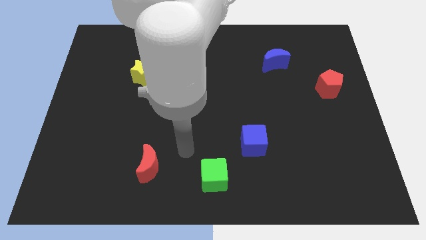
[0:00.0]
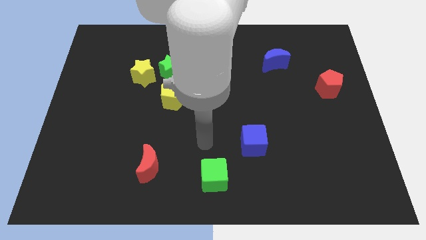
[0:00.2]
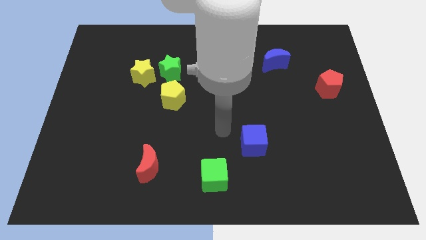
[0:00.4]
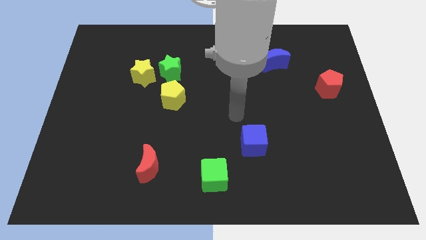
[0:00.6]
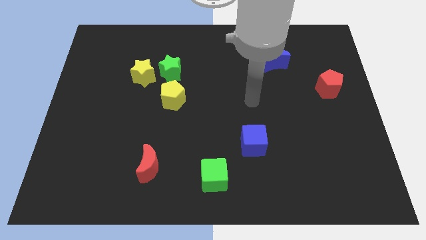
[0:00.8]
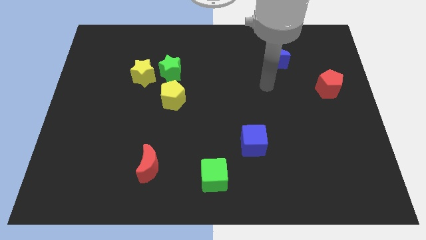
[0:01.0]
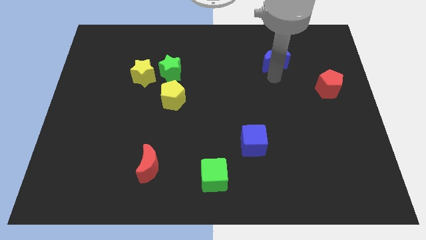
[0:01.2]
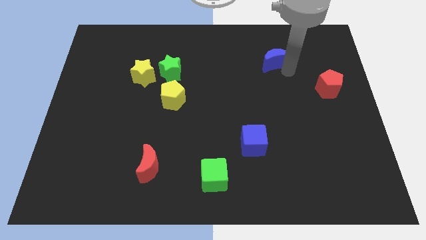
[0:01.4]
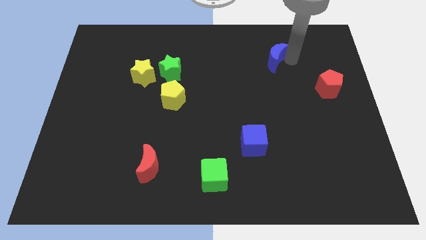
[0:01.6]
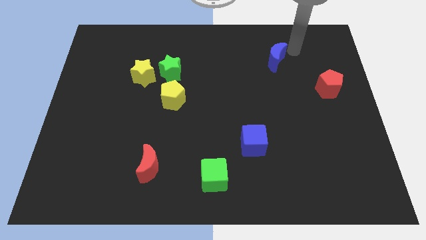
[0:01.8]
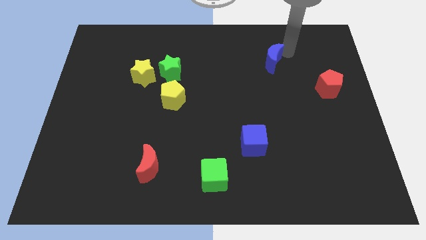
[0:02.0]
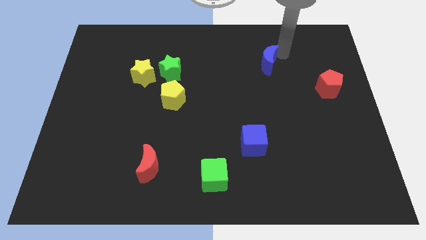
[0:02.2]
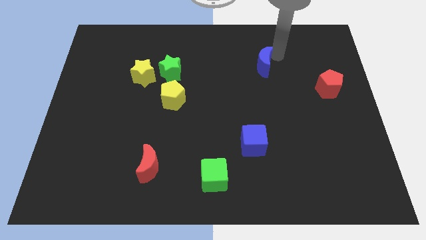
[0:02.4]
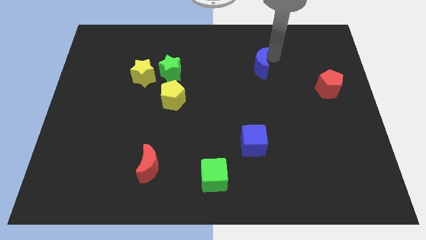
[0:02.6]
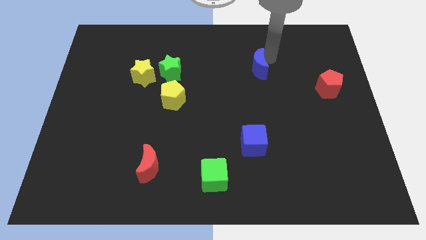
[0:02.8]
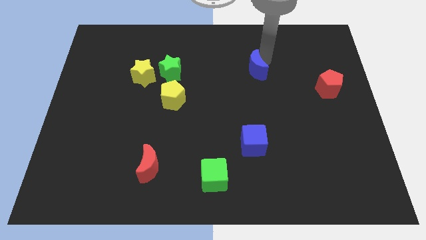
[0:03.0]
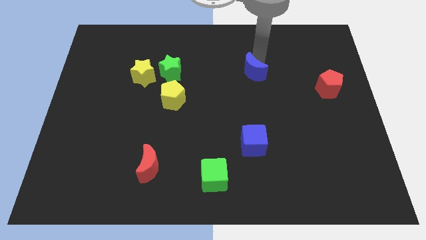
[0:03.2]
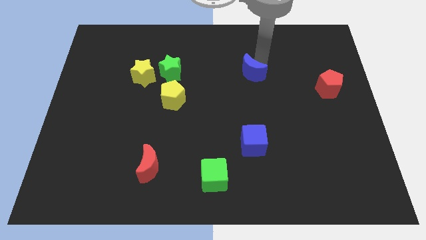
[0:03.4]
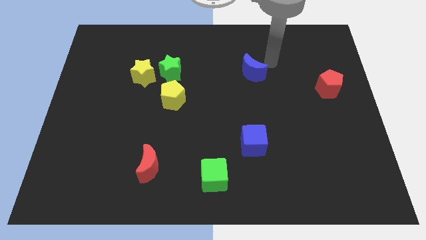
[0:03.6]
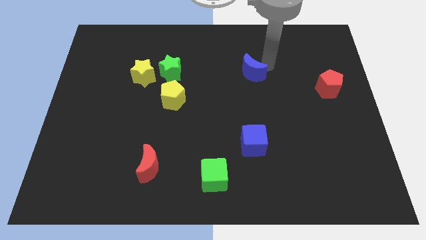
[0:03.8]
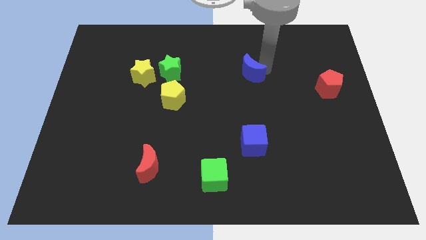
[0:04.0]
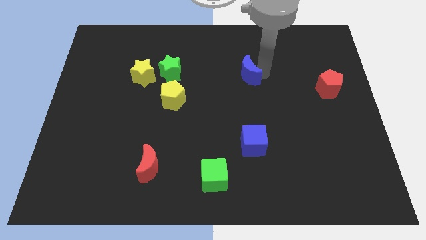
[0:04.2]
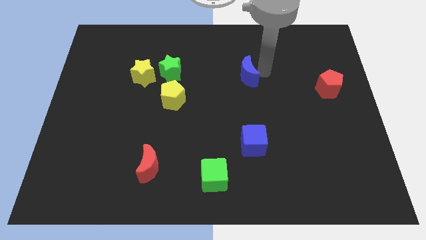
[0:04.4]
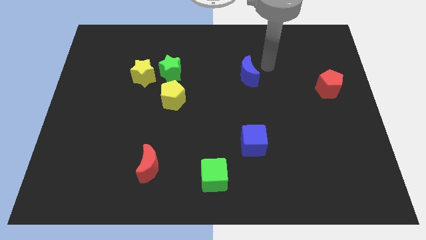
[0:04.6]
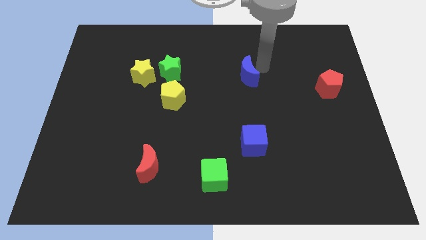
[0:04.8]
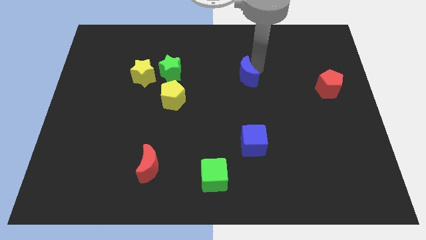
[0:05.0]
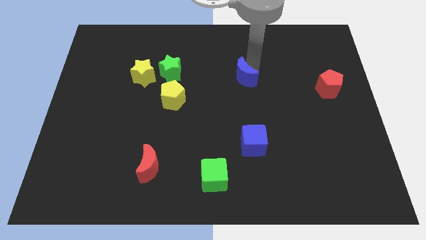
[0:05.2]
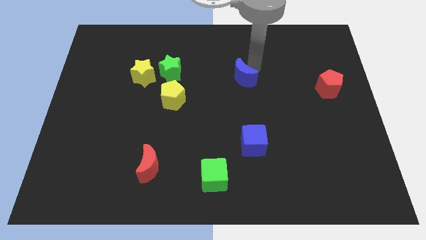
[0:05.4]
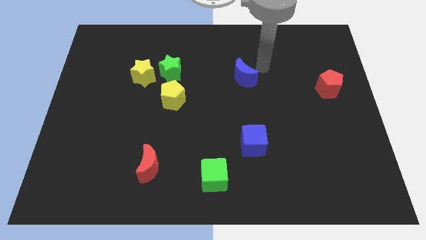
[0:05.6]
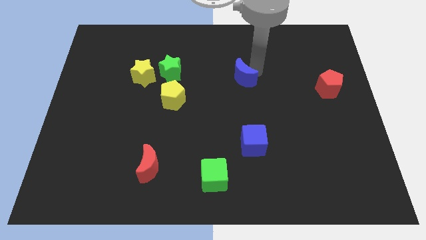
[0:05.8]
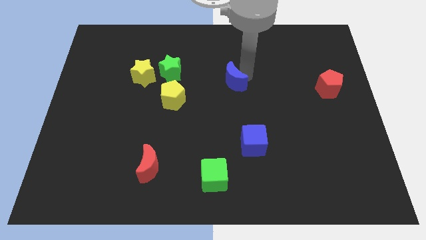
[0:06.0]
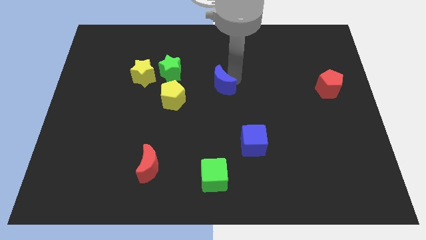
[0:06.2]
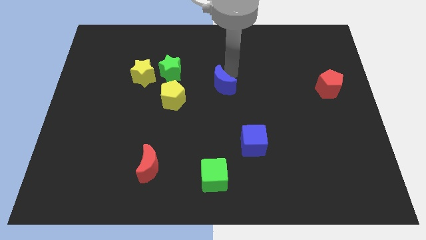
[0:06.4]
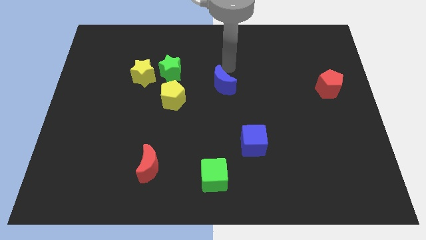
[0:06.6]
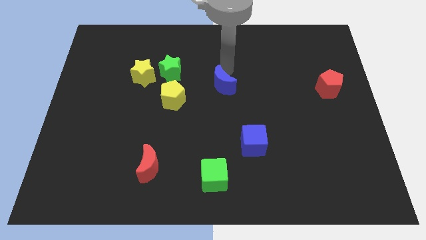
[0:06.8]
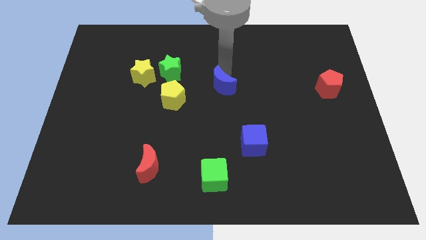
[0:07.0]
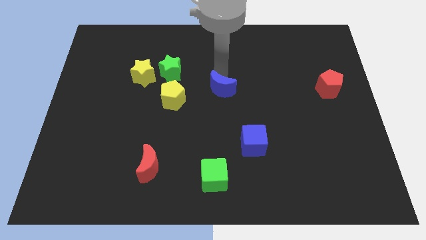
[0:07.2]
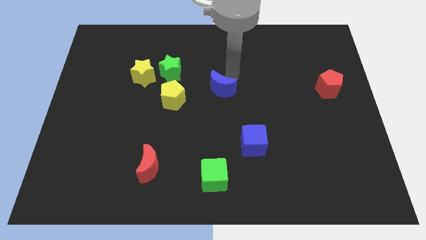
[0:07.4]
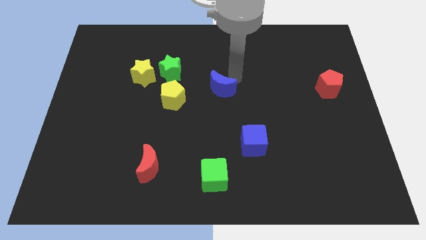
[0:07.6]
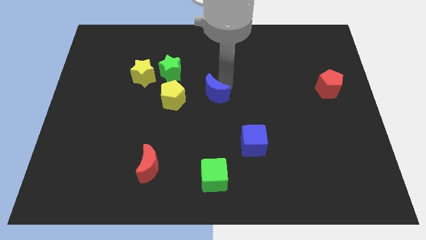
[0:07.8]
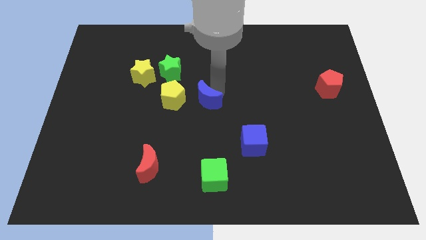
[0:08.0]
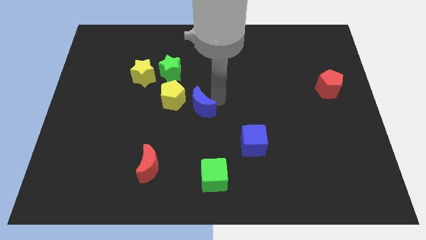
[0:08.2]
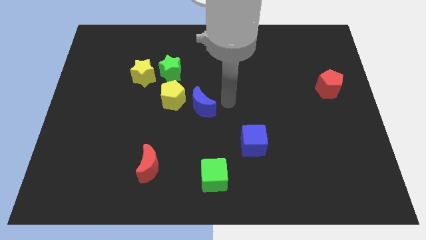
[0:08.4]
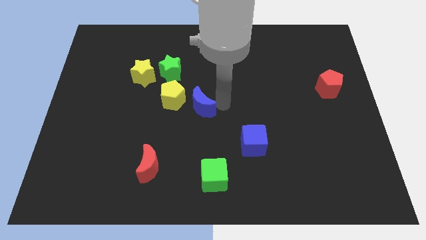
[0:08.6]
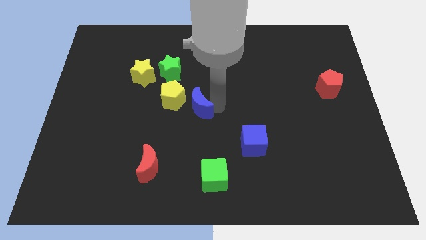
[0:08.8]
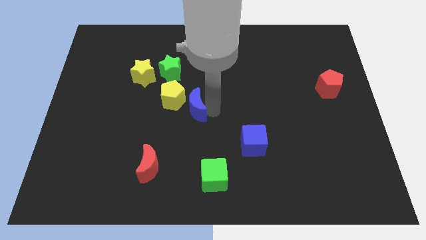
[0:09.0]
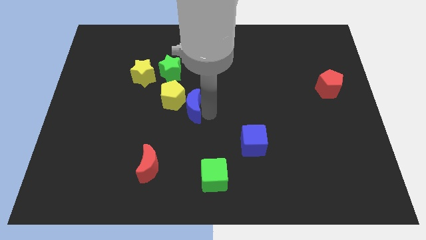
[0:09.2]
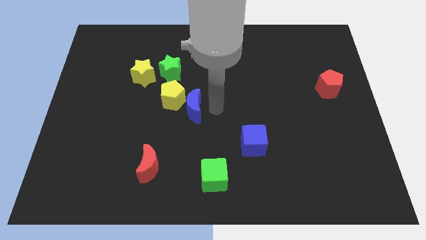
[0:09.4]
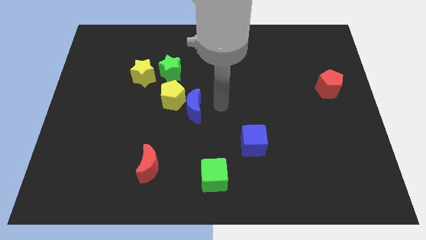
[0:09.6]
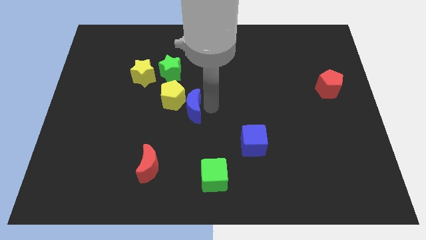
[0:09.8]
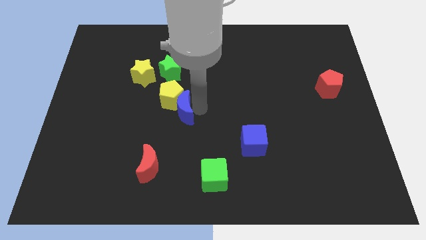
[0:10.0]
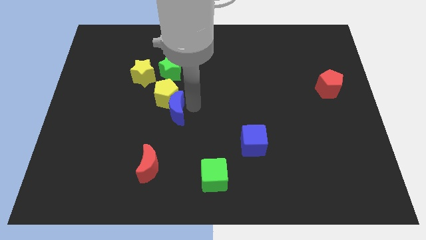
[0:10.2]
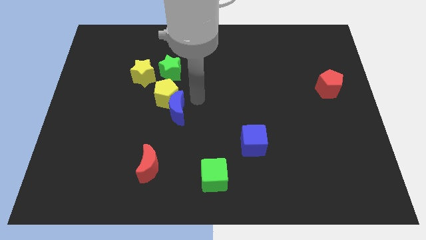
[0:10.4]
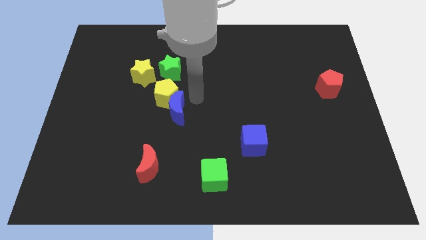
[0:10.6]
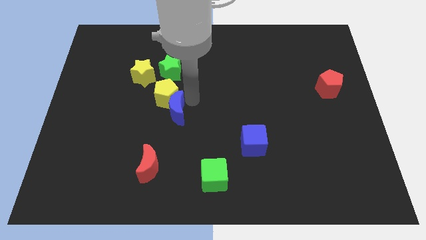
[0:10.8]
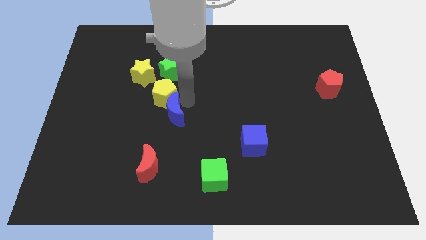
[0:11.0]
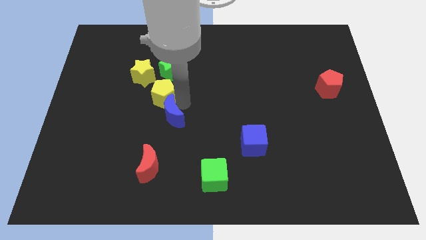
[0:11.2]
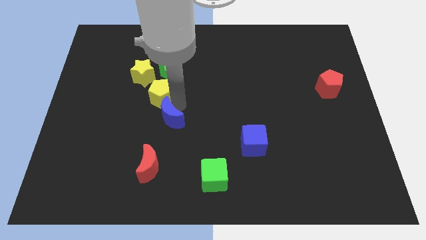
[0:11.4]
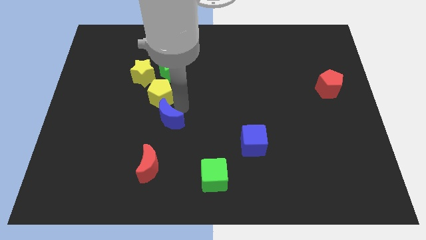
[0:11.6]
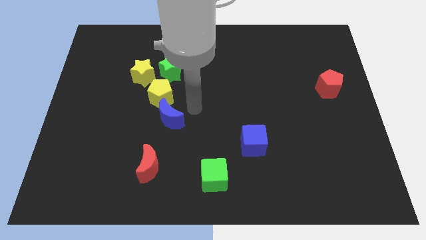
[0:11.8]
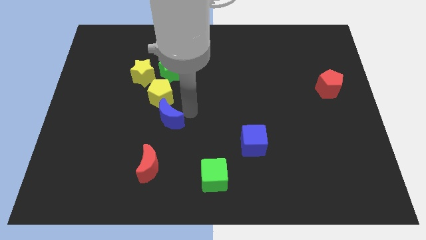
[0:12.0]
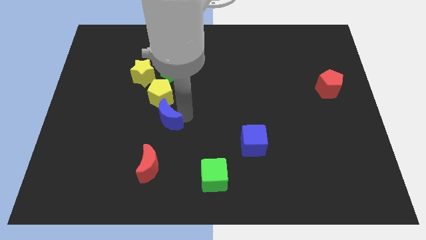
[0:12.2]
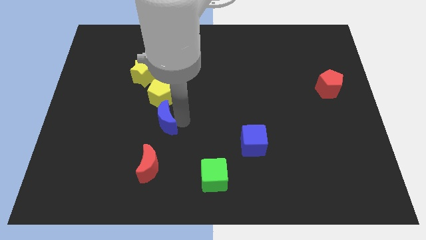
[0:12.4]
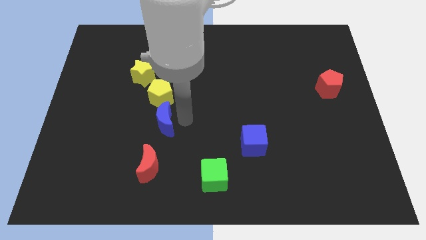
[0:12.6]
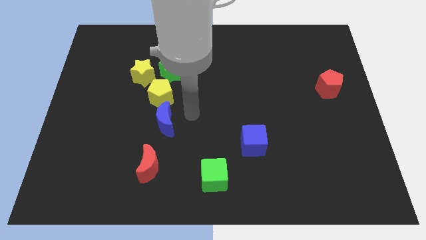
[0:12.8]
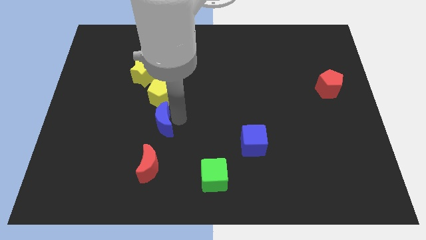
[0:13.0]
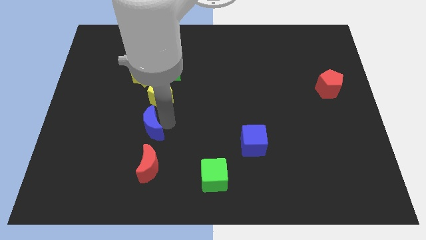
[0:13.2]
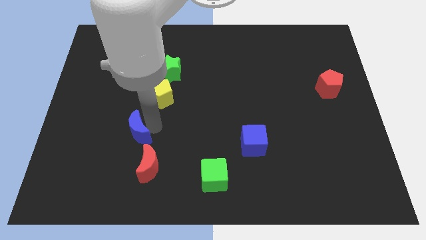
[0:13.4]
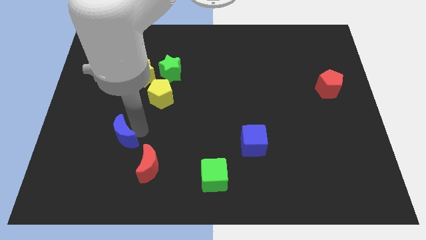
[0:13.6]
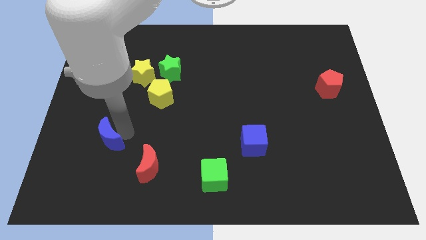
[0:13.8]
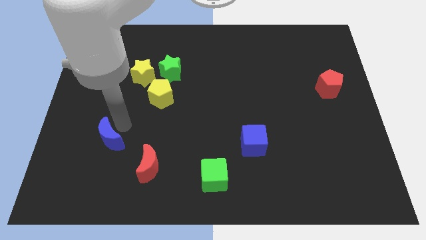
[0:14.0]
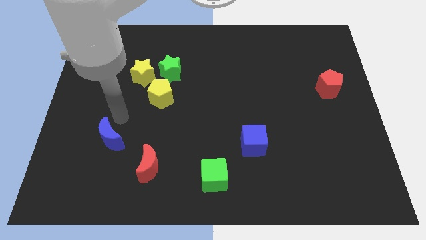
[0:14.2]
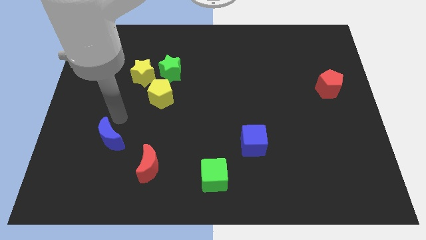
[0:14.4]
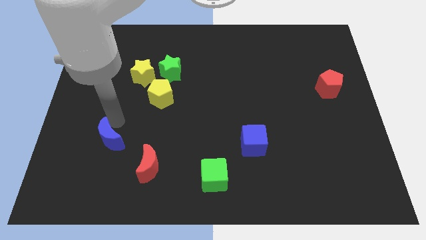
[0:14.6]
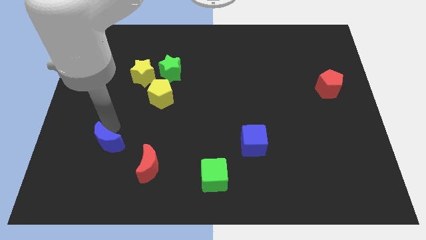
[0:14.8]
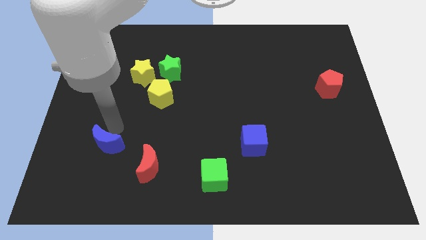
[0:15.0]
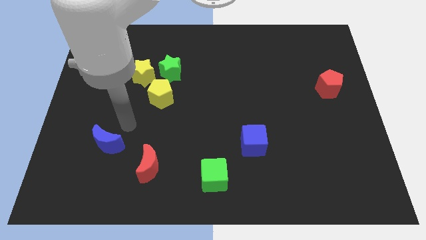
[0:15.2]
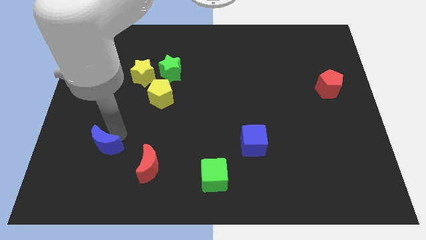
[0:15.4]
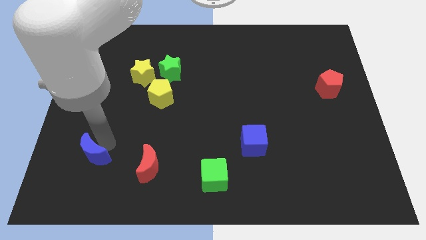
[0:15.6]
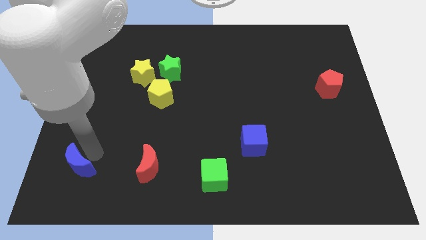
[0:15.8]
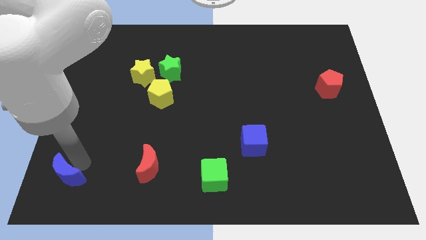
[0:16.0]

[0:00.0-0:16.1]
push the blue moon to the bottom left corner
